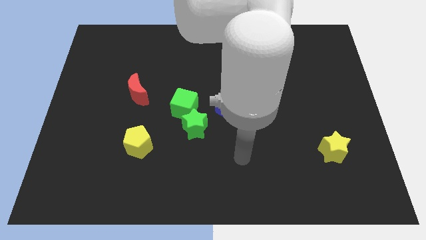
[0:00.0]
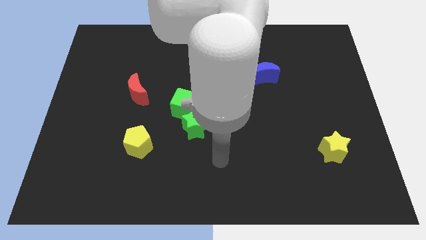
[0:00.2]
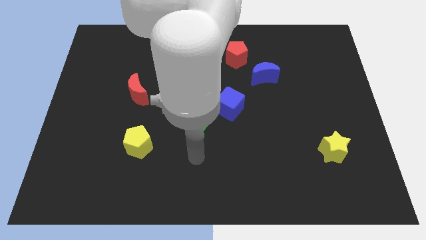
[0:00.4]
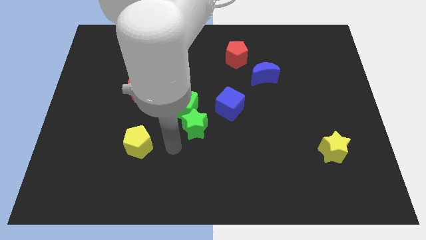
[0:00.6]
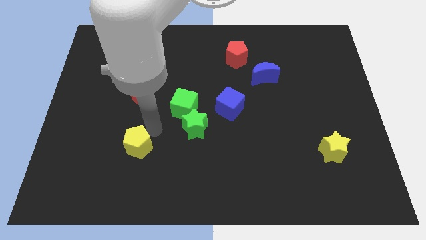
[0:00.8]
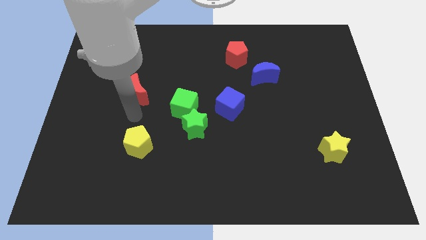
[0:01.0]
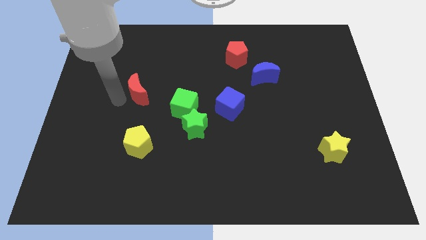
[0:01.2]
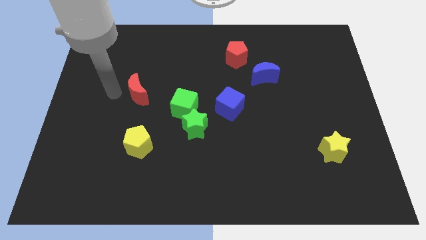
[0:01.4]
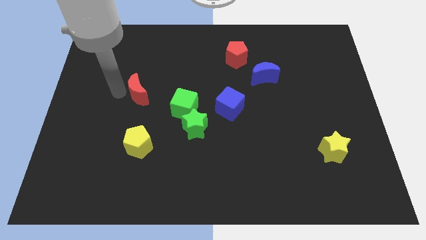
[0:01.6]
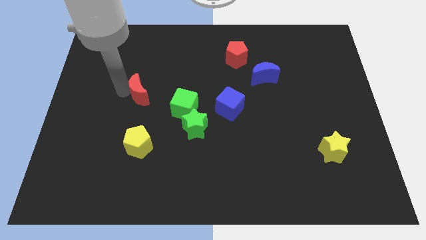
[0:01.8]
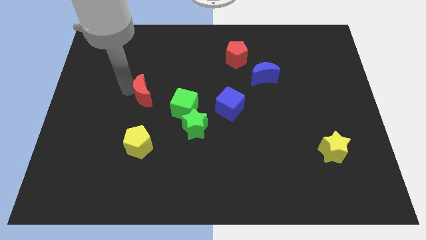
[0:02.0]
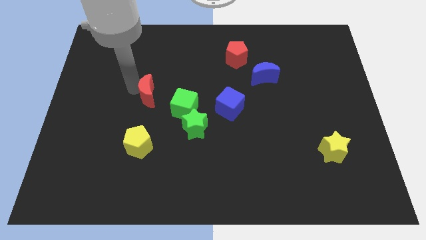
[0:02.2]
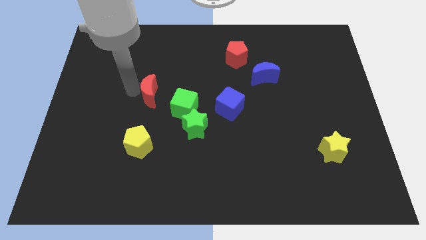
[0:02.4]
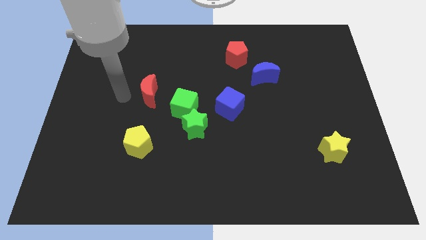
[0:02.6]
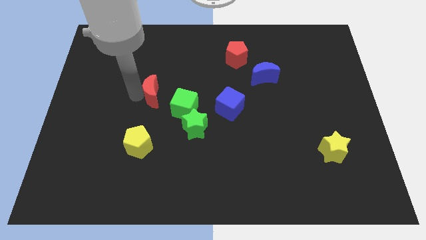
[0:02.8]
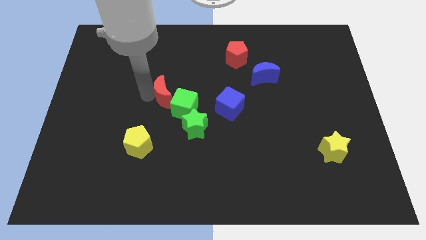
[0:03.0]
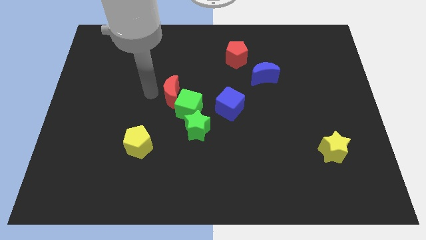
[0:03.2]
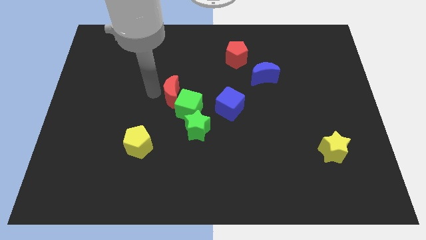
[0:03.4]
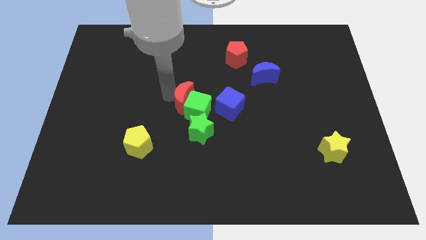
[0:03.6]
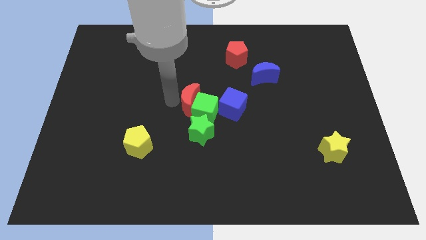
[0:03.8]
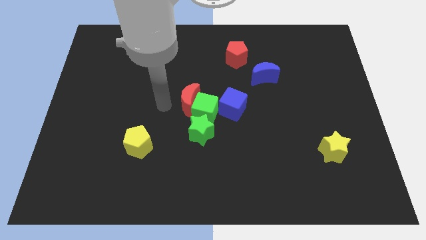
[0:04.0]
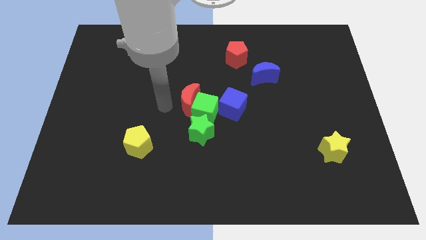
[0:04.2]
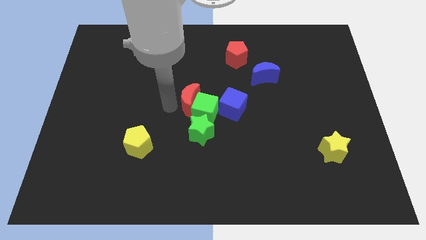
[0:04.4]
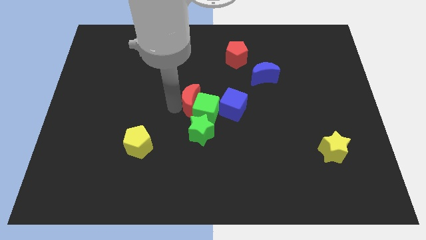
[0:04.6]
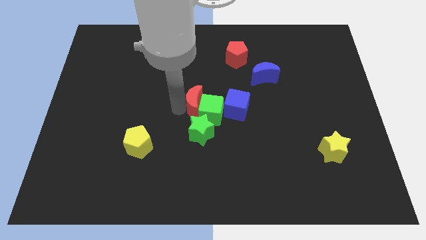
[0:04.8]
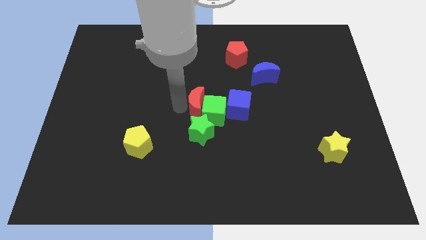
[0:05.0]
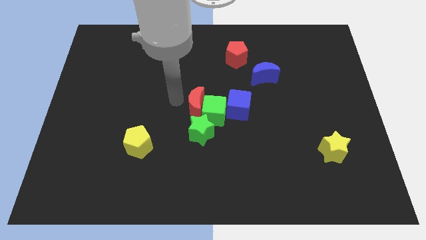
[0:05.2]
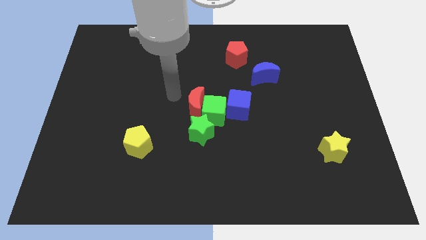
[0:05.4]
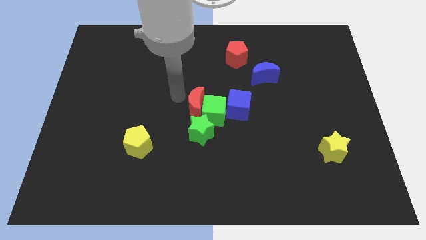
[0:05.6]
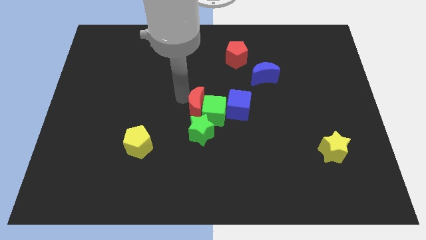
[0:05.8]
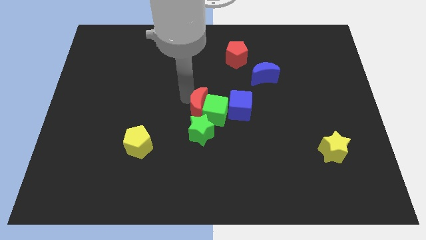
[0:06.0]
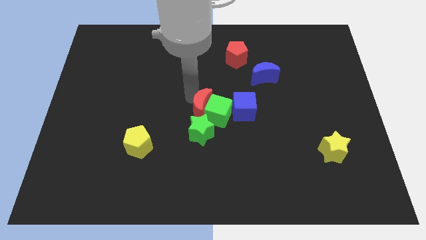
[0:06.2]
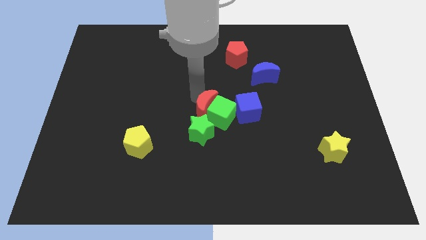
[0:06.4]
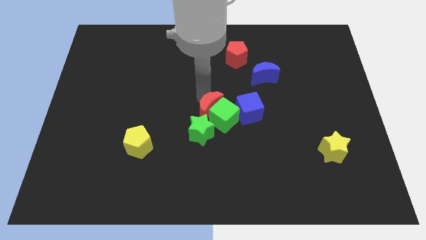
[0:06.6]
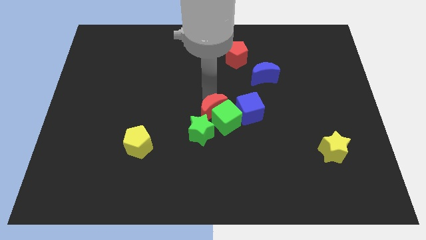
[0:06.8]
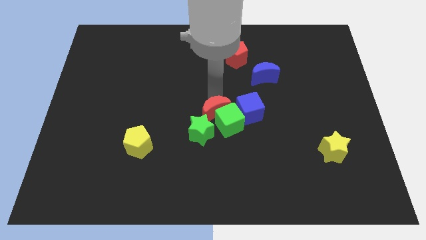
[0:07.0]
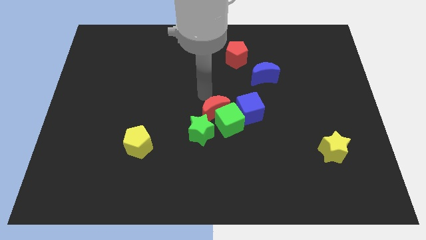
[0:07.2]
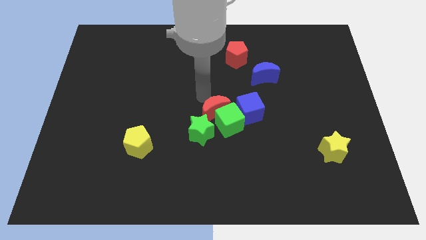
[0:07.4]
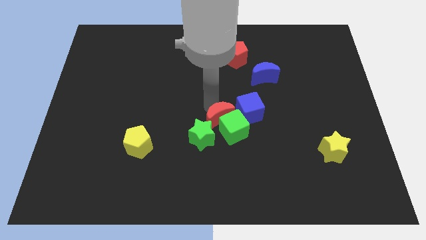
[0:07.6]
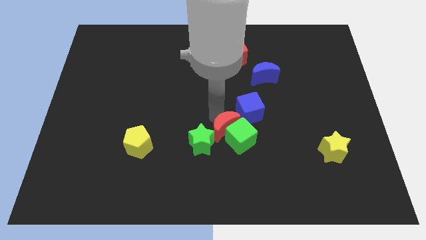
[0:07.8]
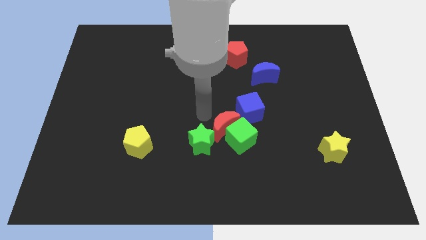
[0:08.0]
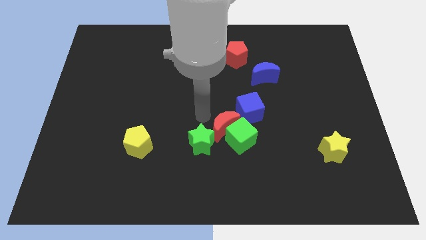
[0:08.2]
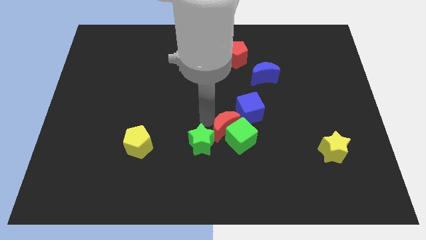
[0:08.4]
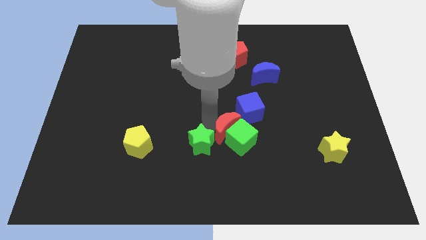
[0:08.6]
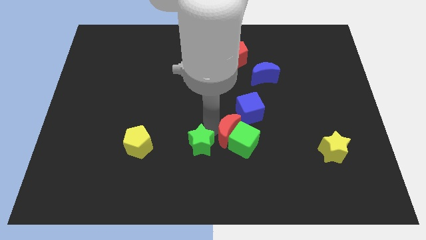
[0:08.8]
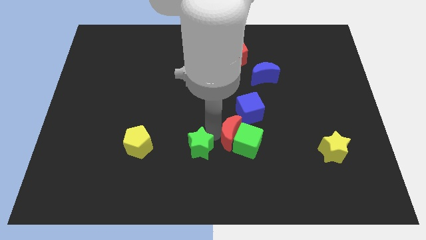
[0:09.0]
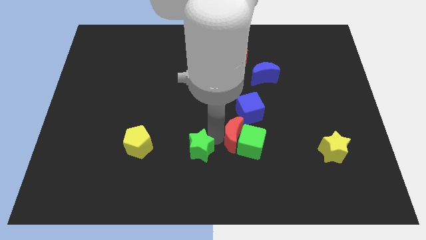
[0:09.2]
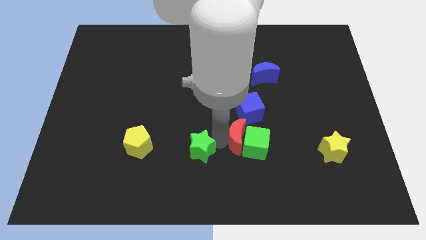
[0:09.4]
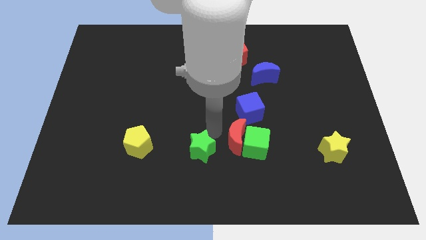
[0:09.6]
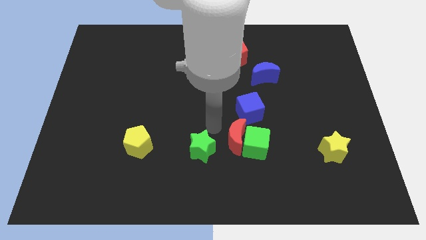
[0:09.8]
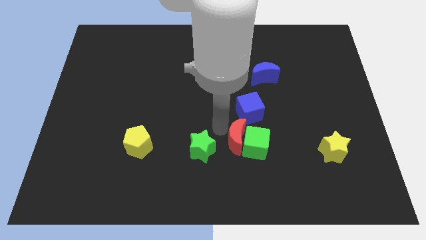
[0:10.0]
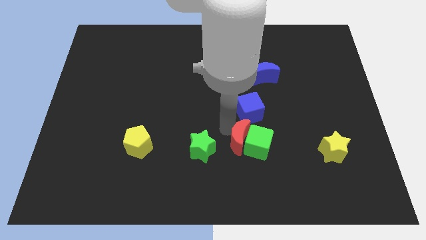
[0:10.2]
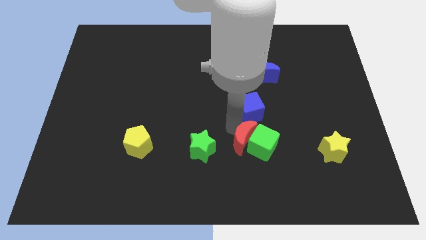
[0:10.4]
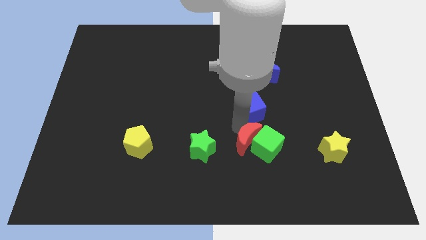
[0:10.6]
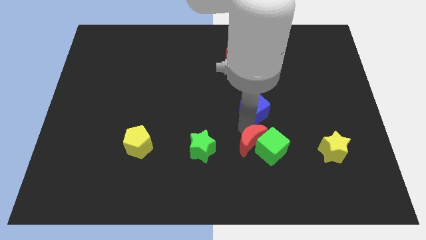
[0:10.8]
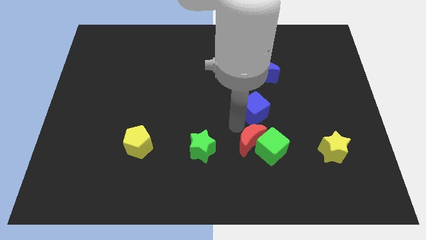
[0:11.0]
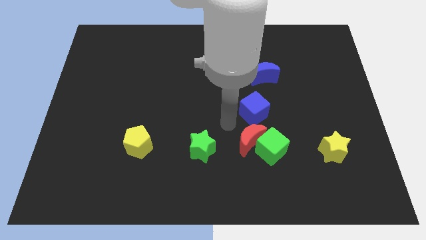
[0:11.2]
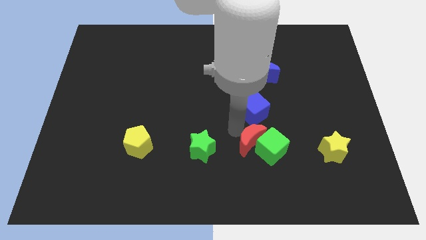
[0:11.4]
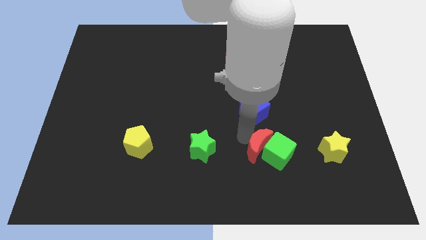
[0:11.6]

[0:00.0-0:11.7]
put the red moon to the left side of the yellow star

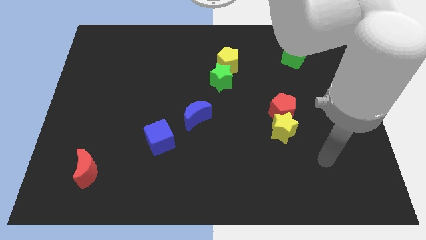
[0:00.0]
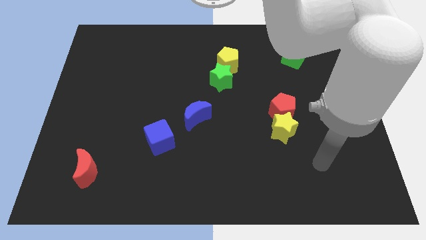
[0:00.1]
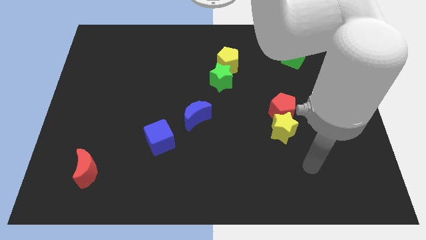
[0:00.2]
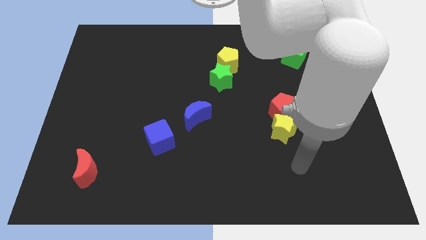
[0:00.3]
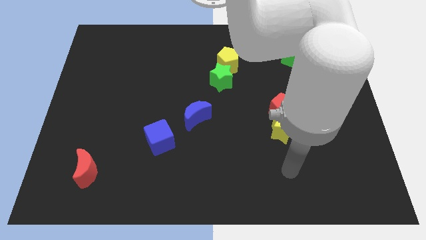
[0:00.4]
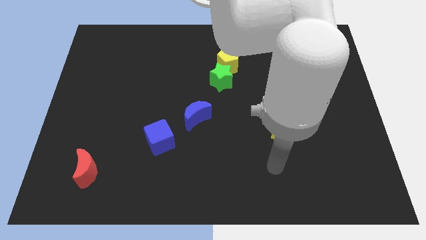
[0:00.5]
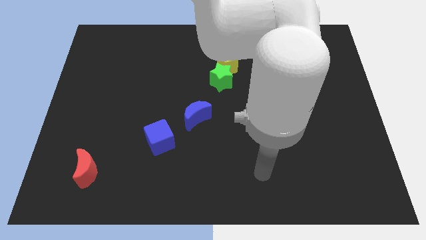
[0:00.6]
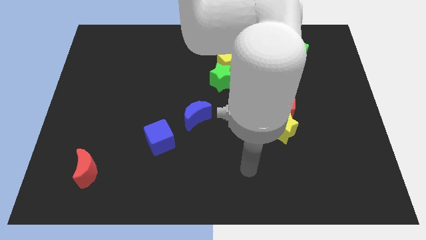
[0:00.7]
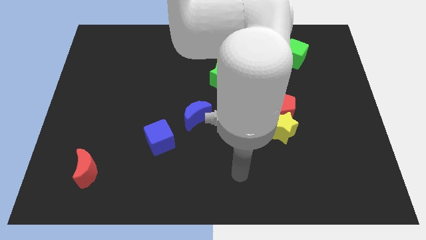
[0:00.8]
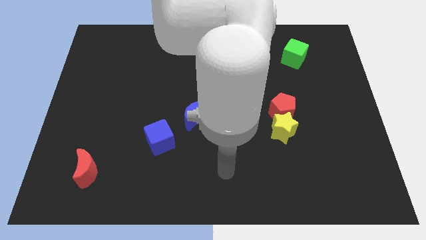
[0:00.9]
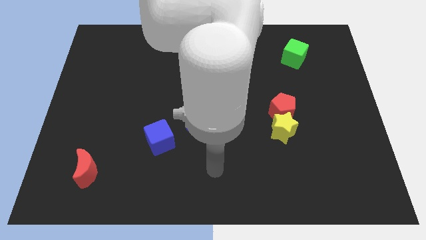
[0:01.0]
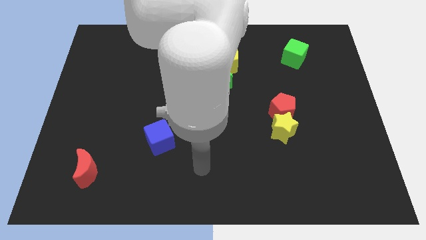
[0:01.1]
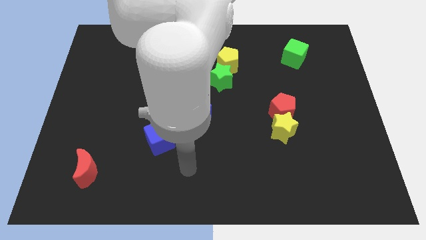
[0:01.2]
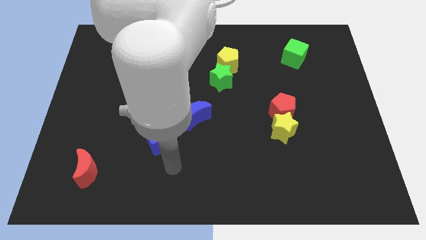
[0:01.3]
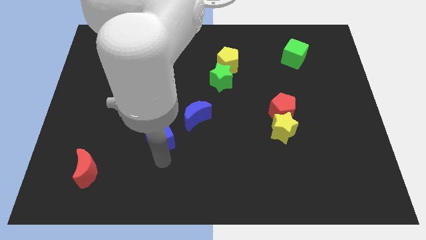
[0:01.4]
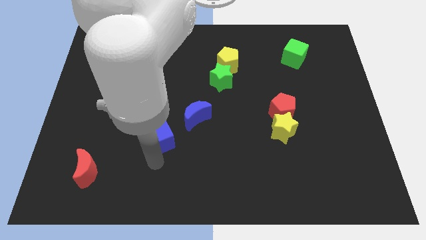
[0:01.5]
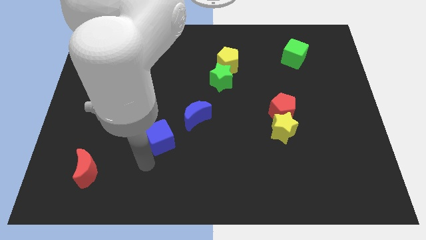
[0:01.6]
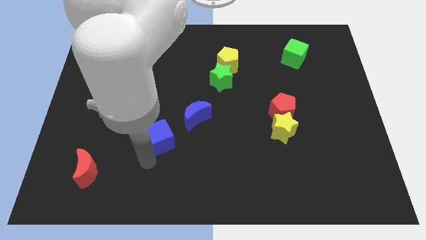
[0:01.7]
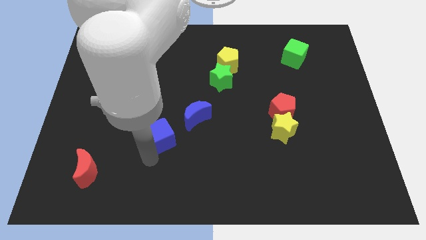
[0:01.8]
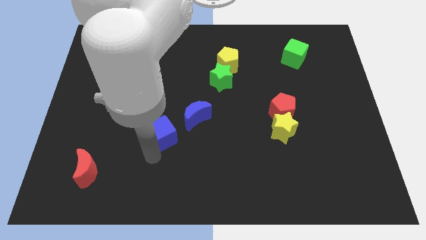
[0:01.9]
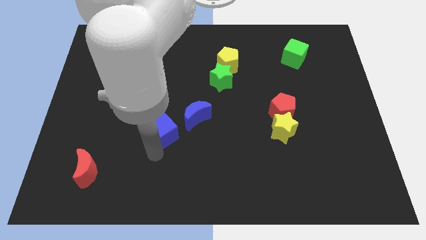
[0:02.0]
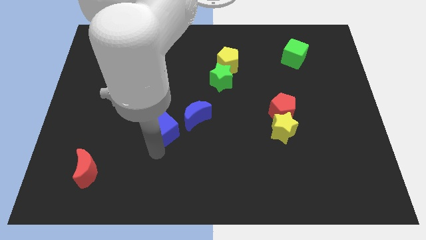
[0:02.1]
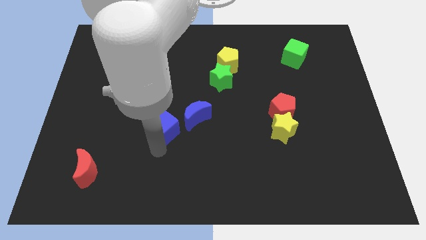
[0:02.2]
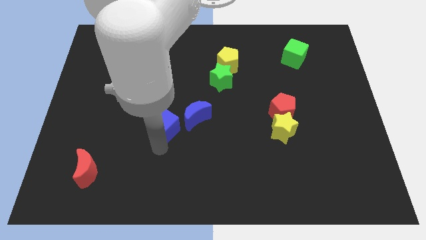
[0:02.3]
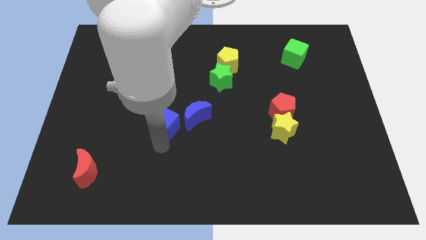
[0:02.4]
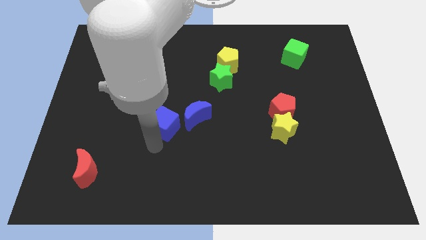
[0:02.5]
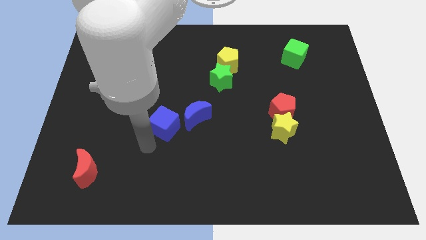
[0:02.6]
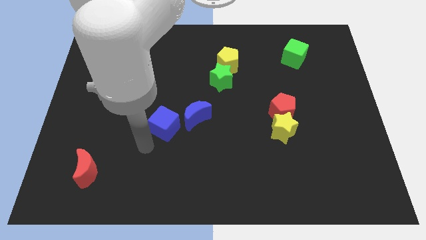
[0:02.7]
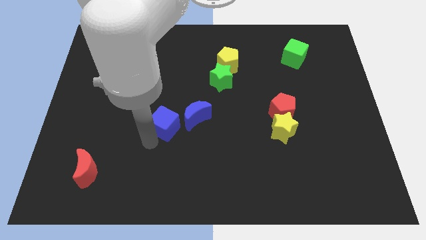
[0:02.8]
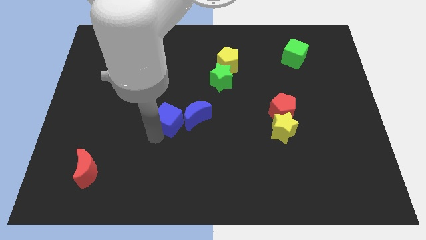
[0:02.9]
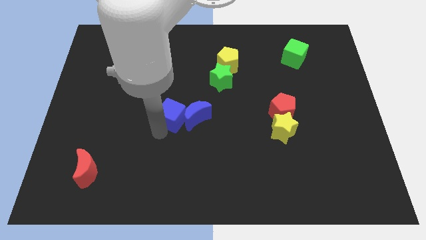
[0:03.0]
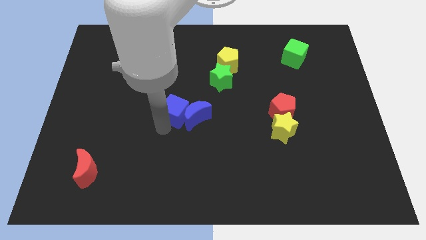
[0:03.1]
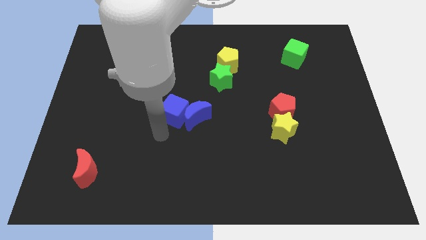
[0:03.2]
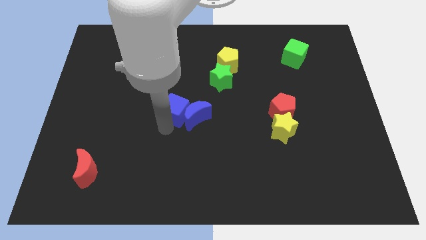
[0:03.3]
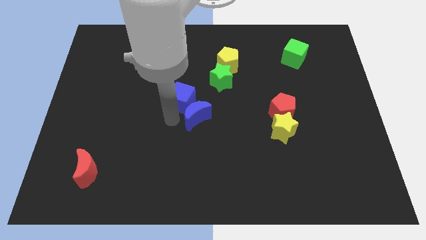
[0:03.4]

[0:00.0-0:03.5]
move the blue cube to the top of the blue moon
